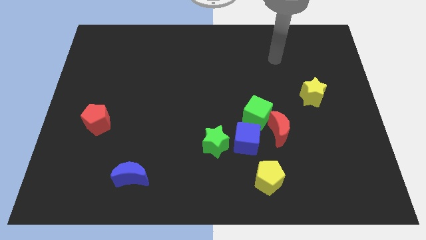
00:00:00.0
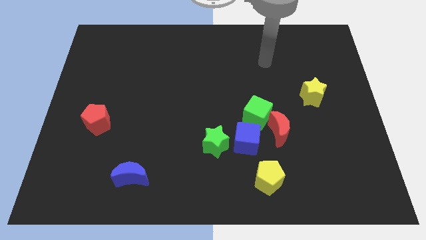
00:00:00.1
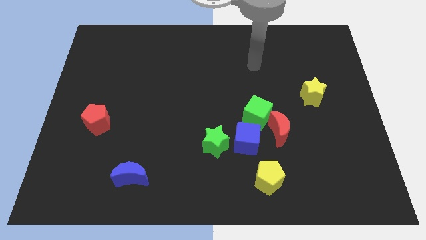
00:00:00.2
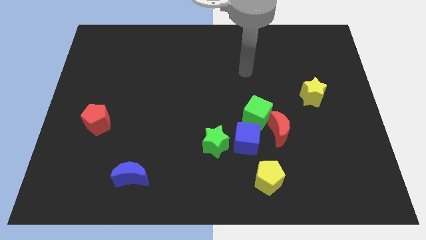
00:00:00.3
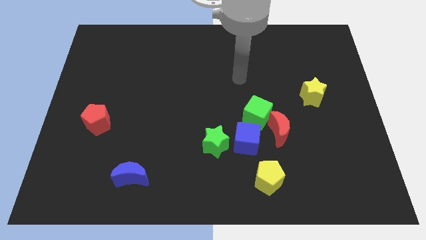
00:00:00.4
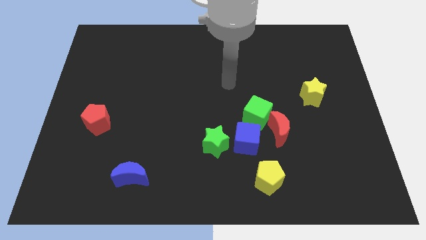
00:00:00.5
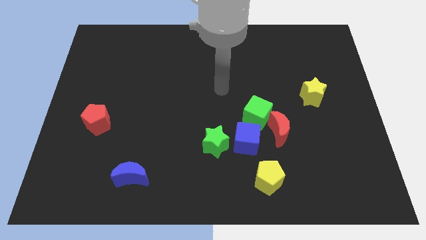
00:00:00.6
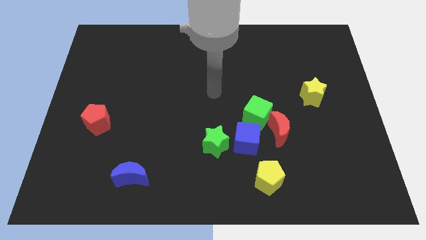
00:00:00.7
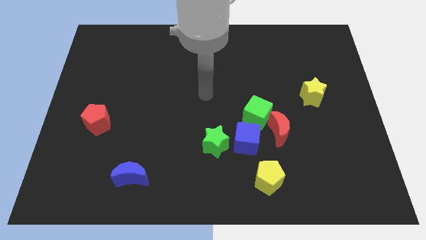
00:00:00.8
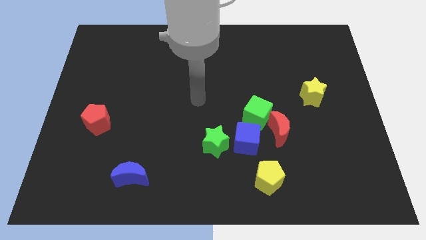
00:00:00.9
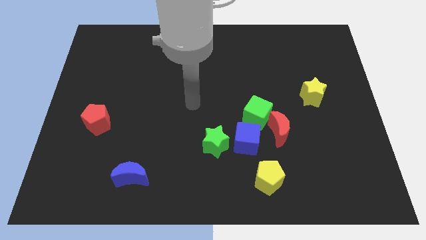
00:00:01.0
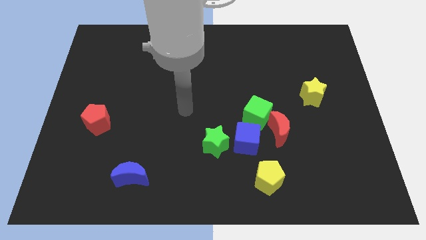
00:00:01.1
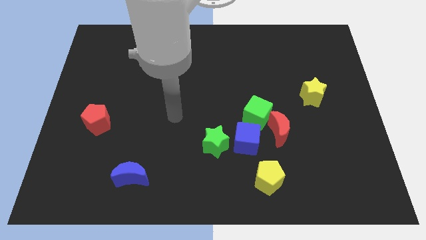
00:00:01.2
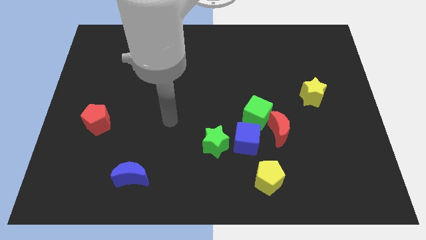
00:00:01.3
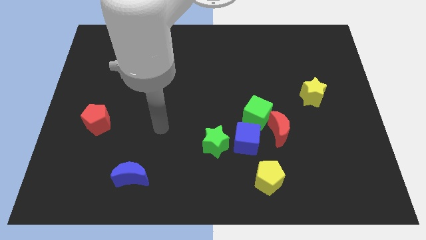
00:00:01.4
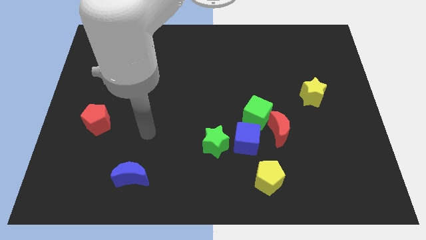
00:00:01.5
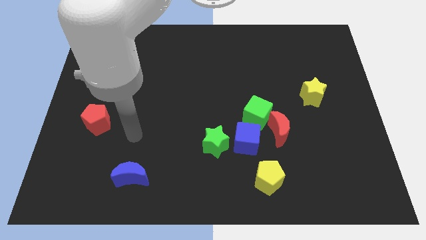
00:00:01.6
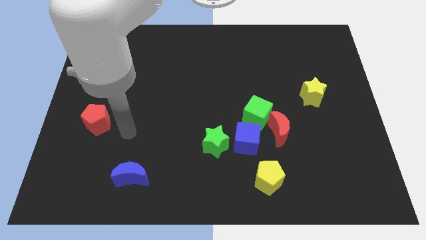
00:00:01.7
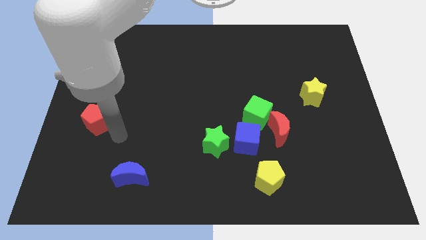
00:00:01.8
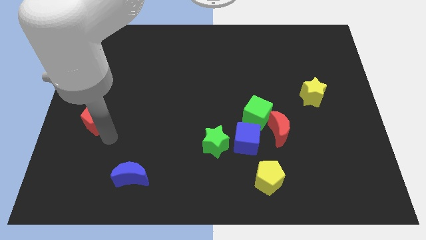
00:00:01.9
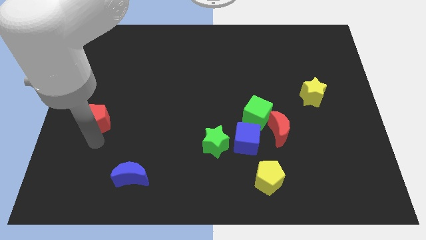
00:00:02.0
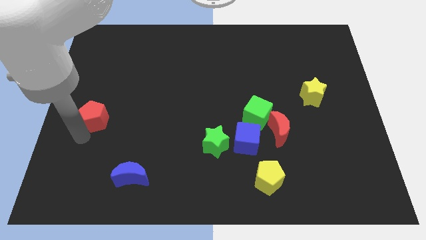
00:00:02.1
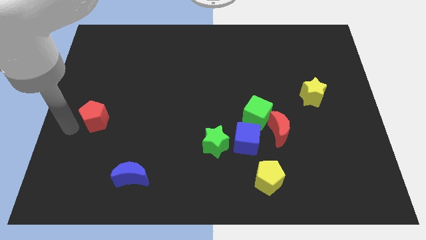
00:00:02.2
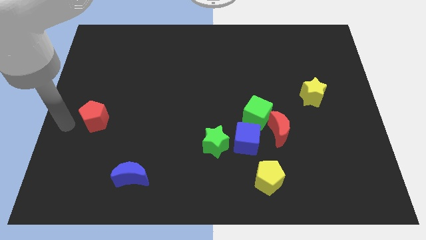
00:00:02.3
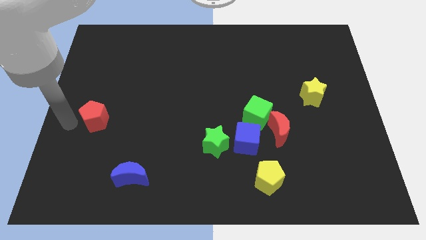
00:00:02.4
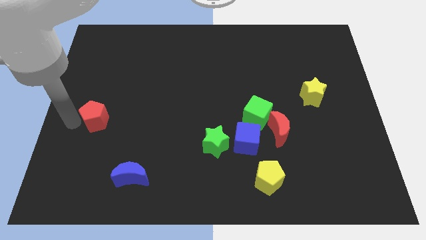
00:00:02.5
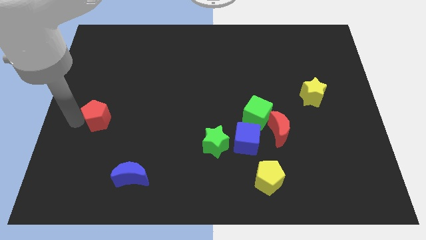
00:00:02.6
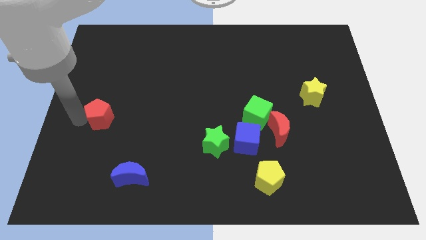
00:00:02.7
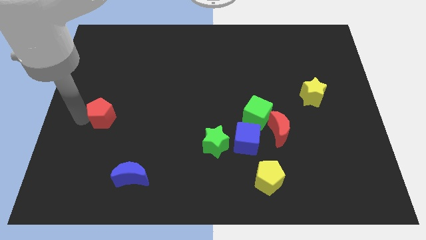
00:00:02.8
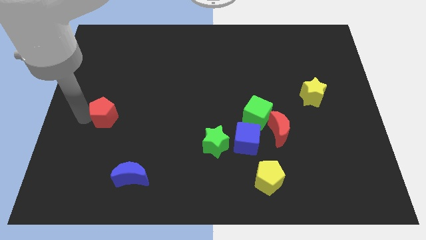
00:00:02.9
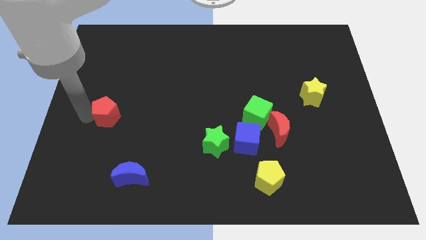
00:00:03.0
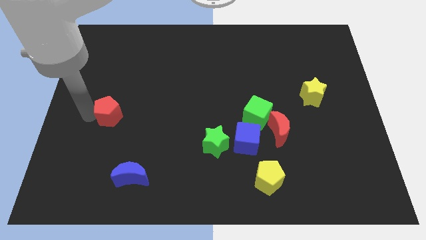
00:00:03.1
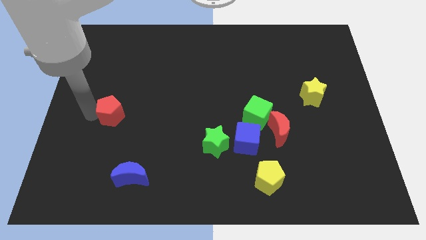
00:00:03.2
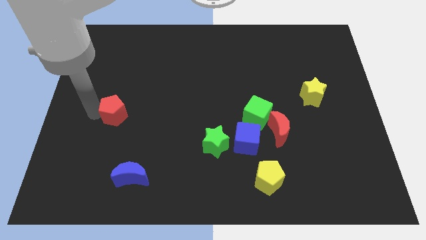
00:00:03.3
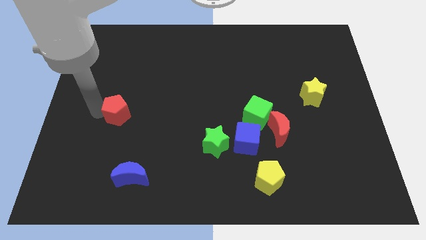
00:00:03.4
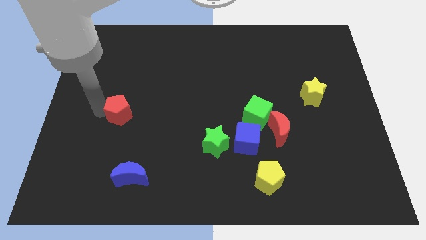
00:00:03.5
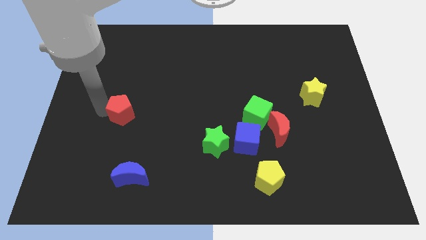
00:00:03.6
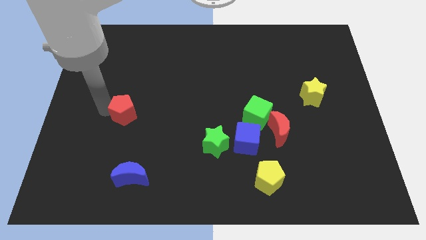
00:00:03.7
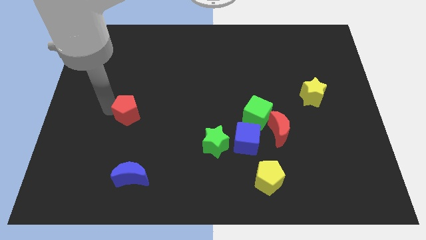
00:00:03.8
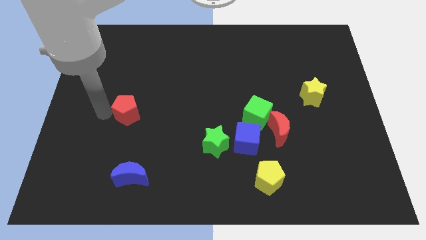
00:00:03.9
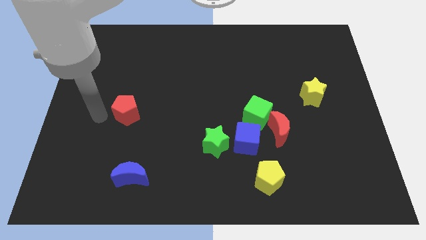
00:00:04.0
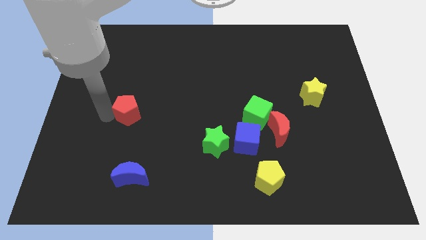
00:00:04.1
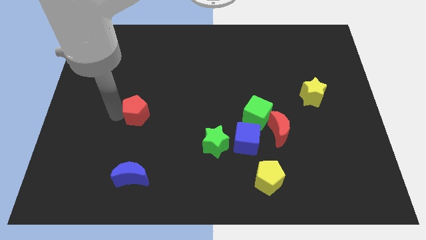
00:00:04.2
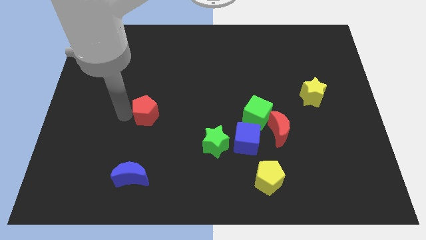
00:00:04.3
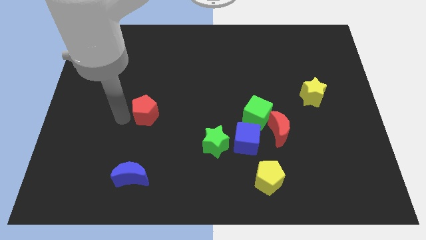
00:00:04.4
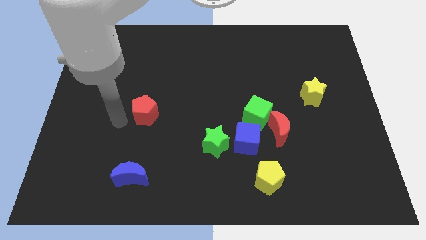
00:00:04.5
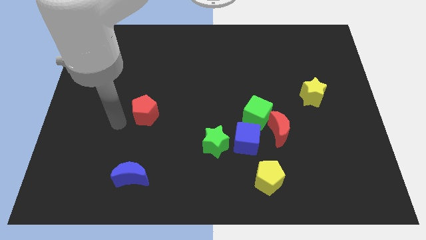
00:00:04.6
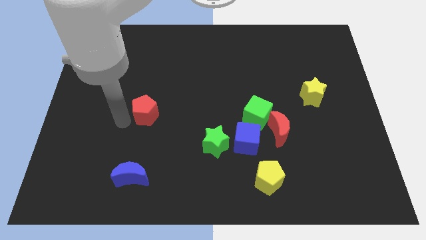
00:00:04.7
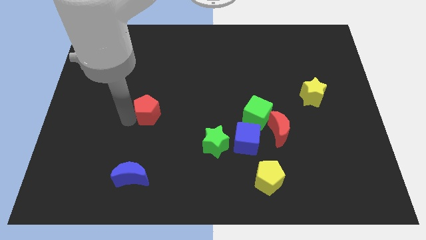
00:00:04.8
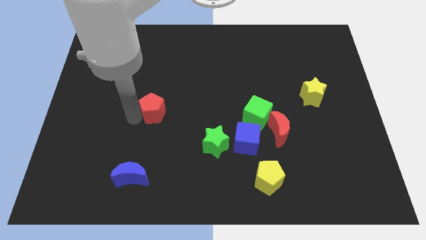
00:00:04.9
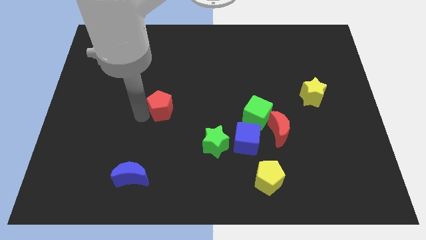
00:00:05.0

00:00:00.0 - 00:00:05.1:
move the red pentagon to the center of the board

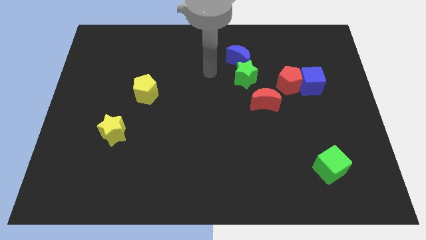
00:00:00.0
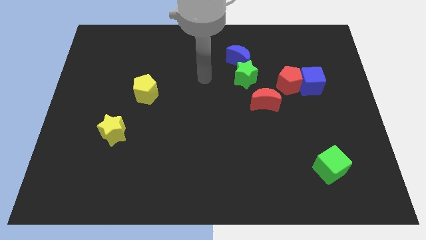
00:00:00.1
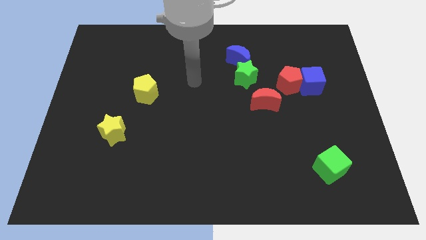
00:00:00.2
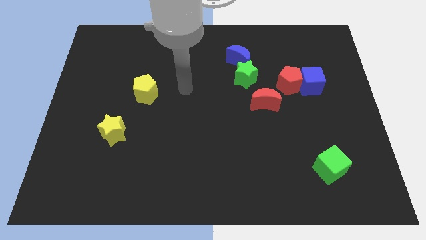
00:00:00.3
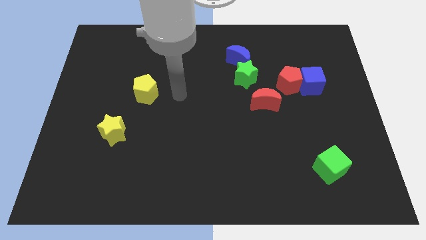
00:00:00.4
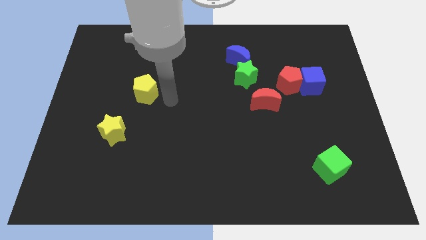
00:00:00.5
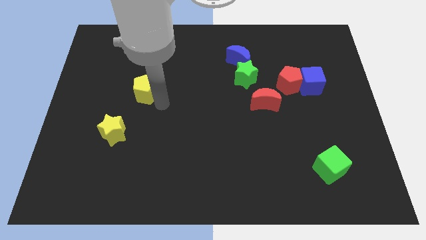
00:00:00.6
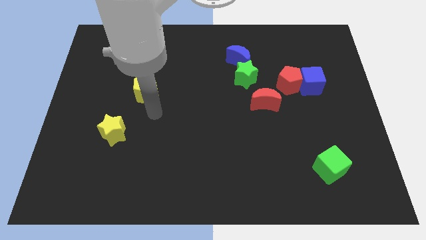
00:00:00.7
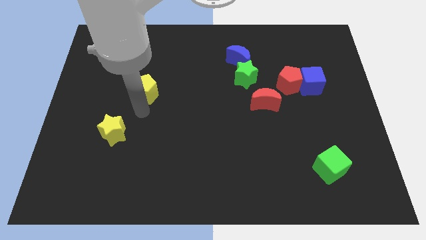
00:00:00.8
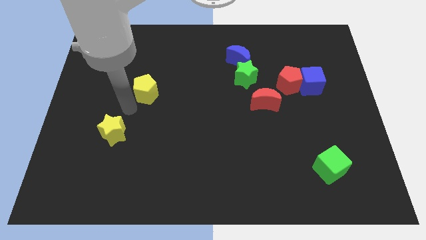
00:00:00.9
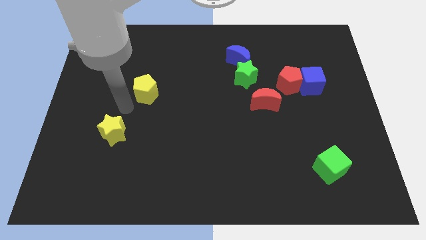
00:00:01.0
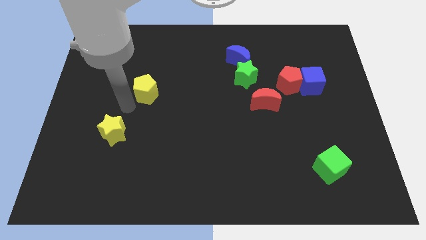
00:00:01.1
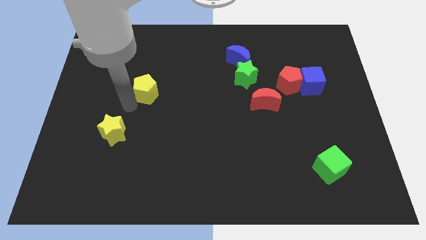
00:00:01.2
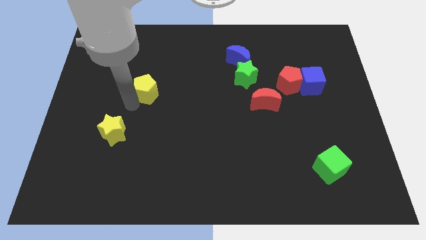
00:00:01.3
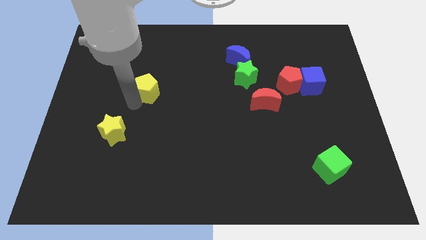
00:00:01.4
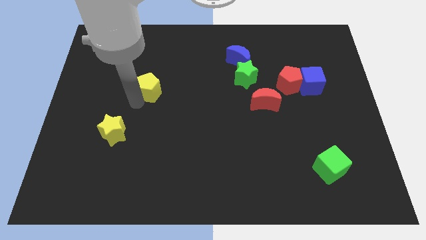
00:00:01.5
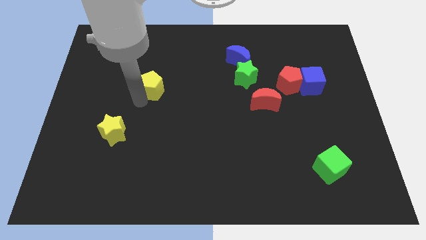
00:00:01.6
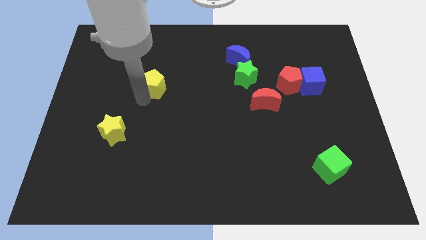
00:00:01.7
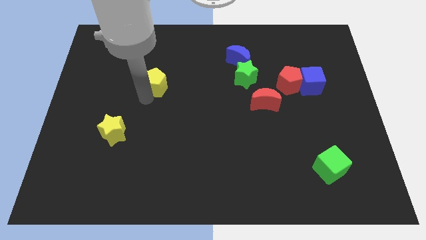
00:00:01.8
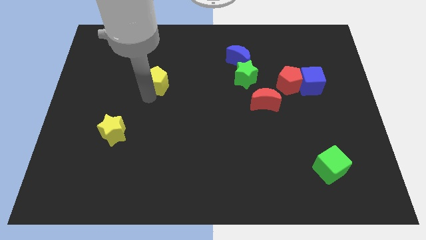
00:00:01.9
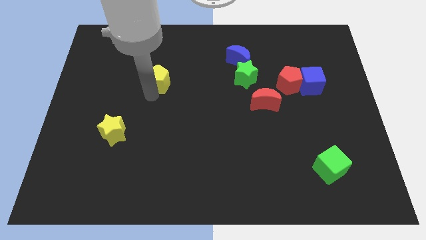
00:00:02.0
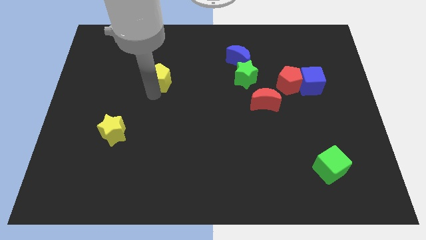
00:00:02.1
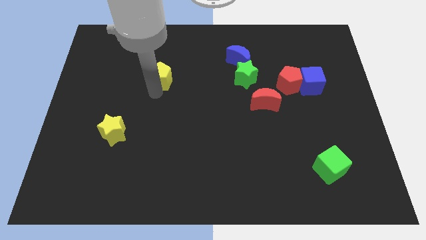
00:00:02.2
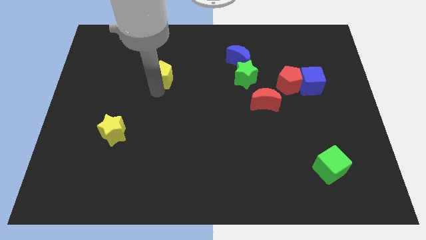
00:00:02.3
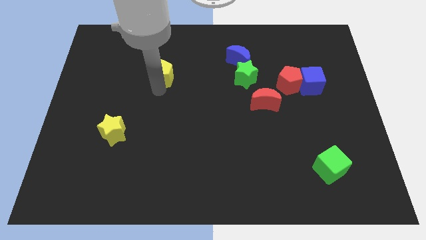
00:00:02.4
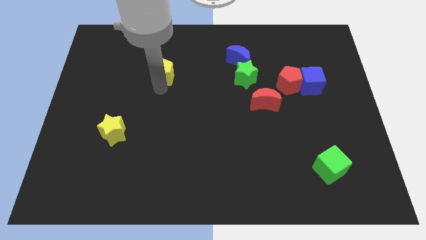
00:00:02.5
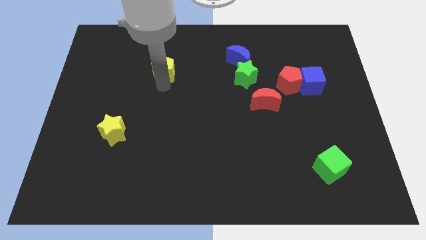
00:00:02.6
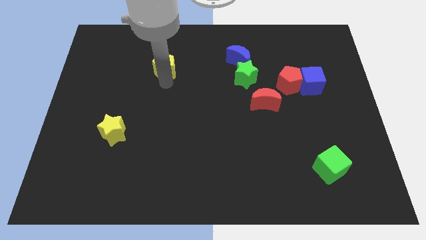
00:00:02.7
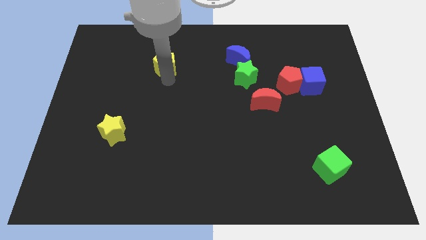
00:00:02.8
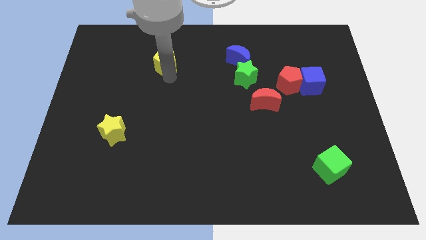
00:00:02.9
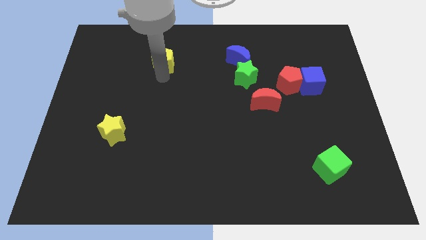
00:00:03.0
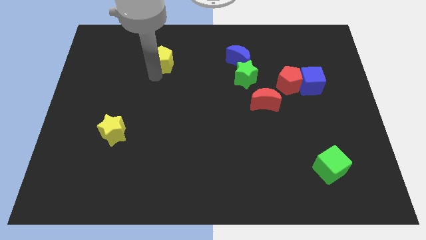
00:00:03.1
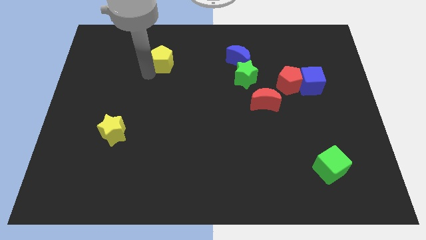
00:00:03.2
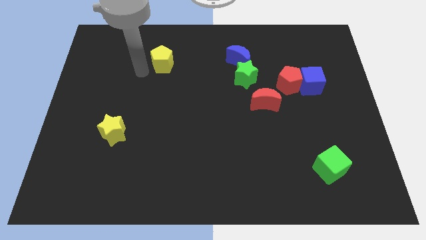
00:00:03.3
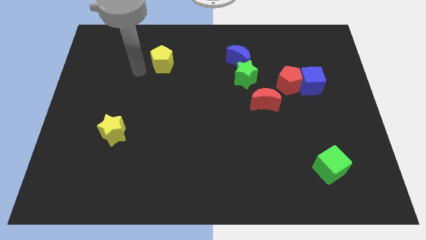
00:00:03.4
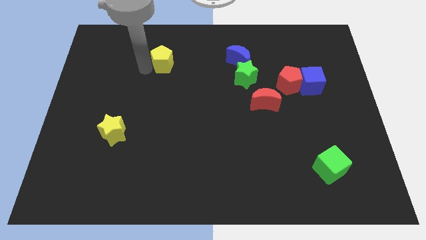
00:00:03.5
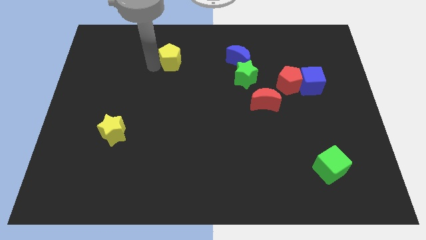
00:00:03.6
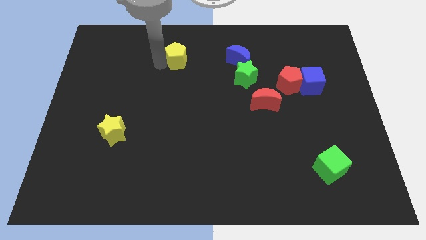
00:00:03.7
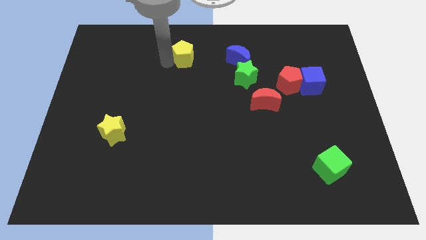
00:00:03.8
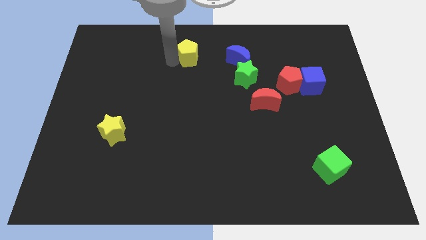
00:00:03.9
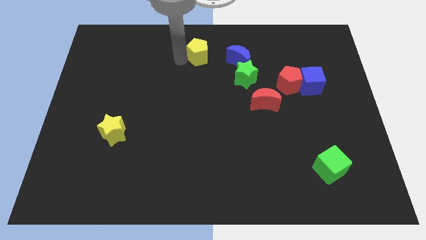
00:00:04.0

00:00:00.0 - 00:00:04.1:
move the yellow pentagon to the towards your base
